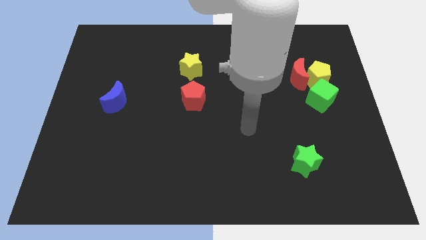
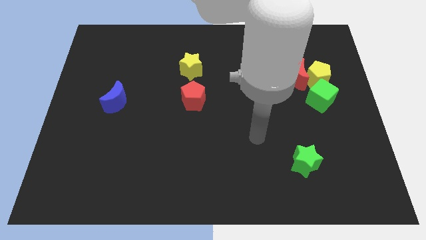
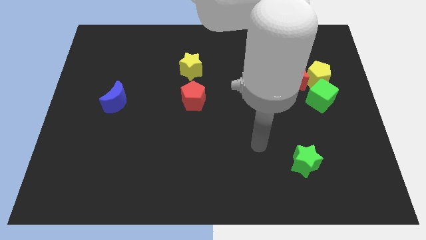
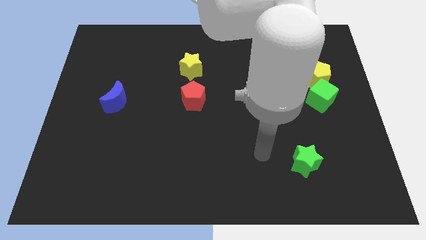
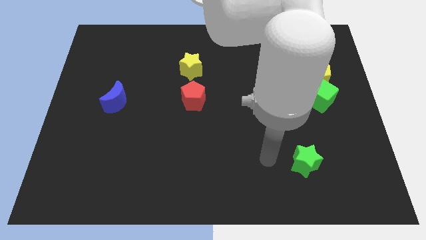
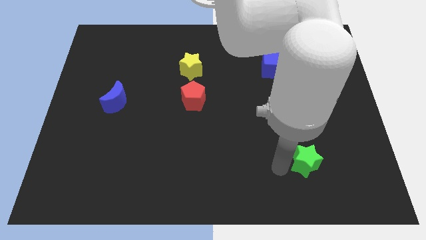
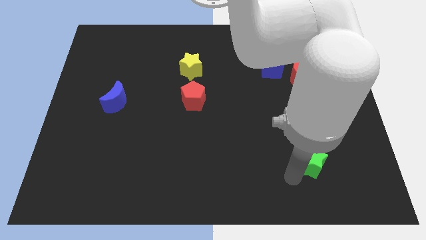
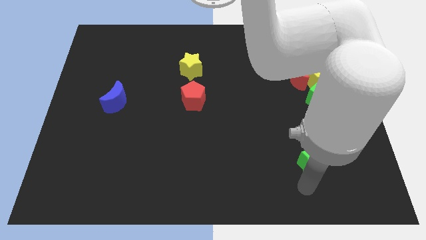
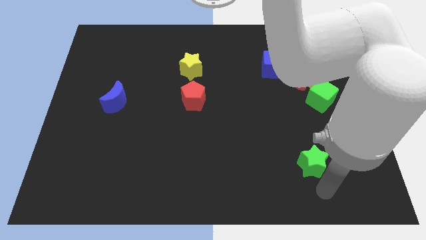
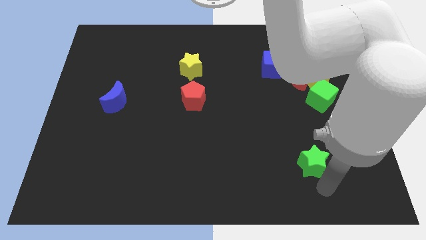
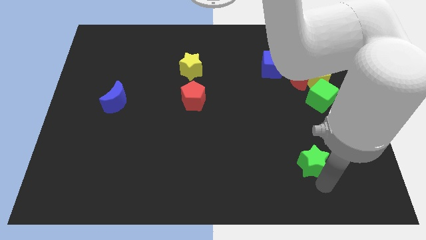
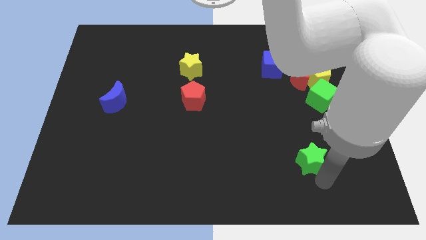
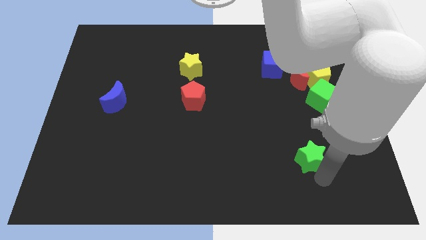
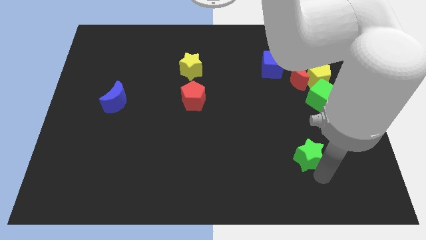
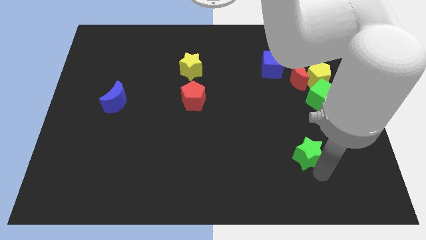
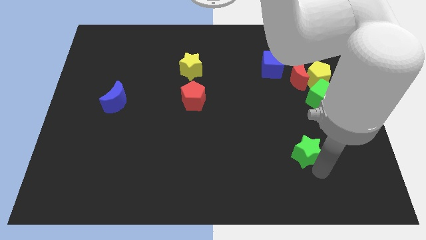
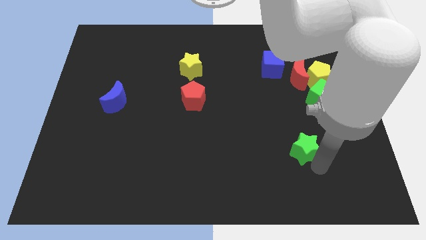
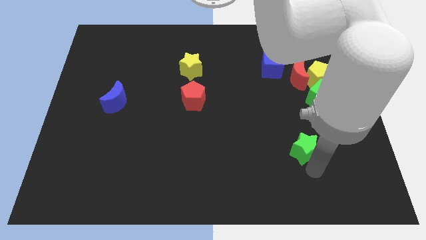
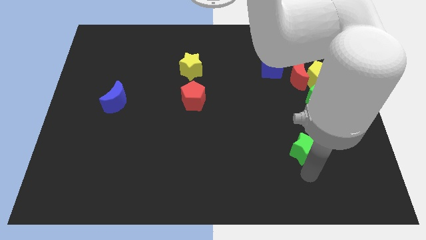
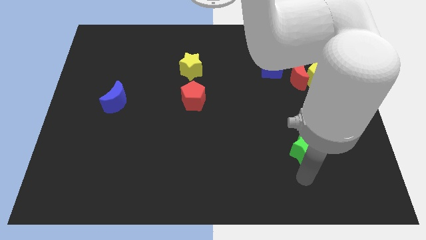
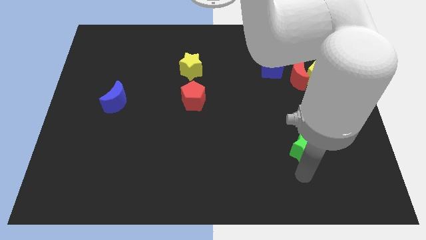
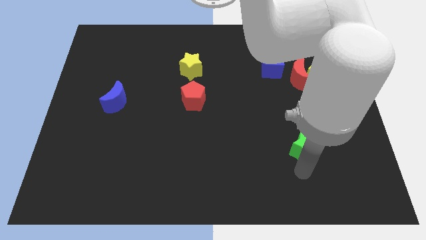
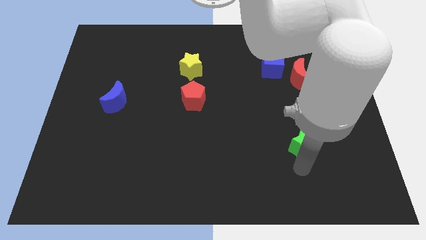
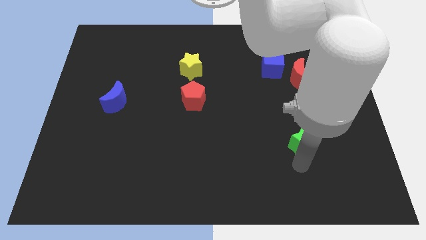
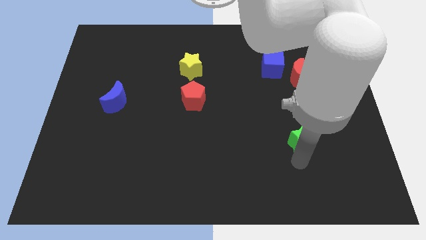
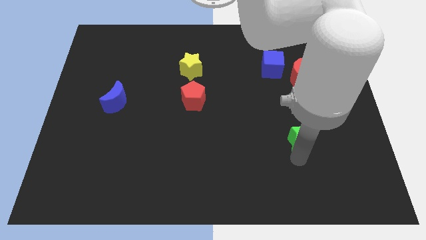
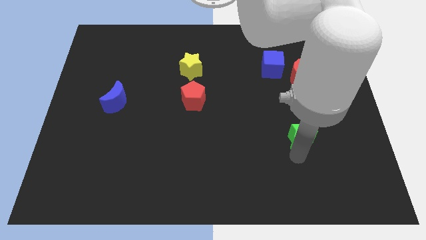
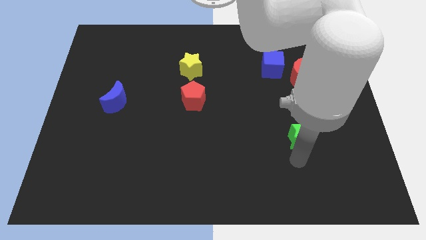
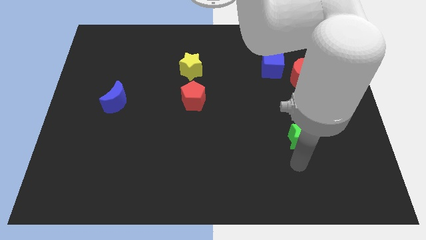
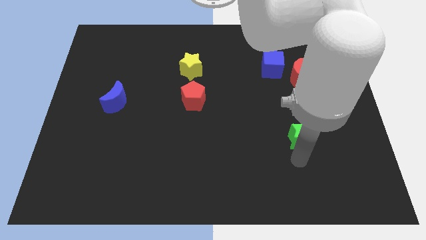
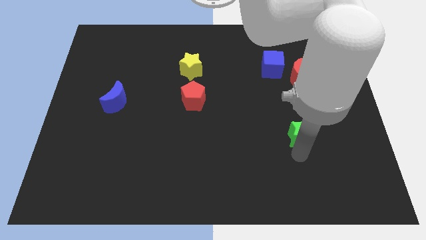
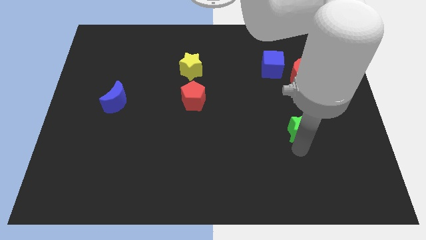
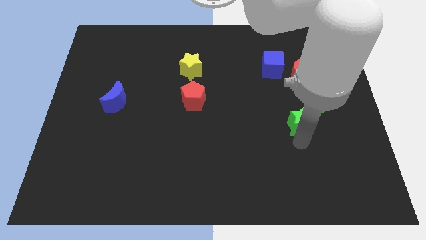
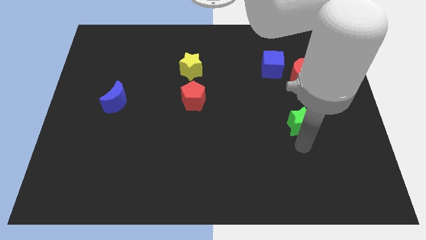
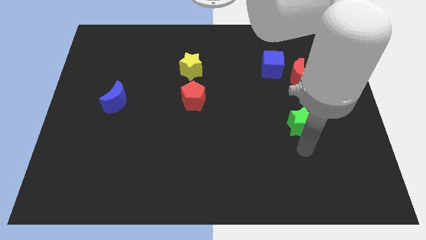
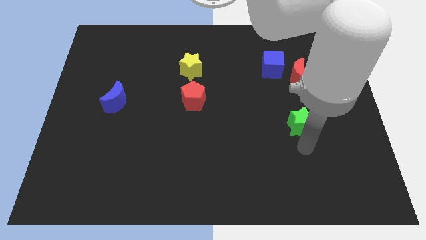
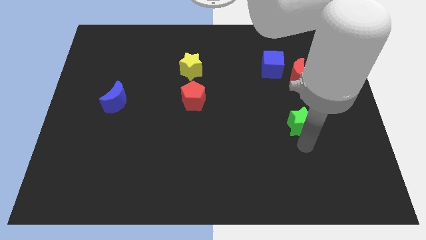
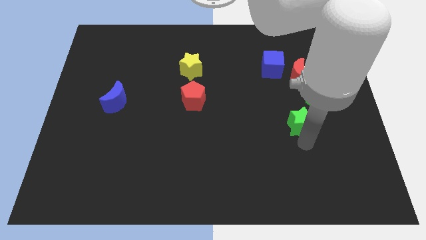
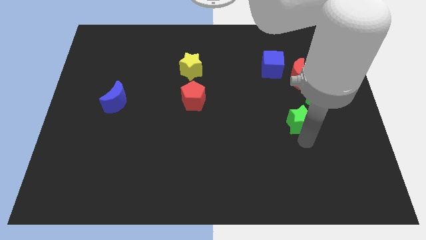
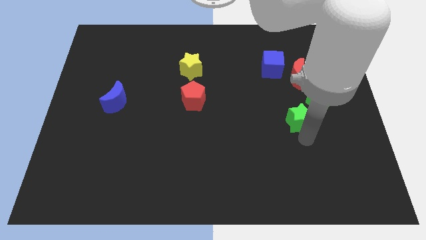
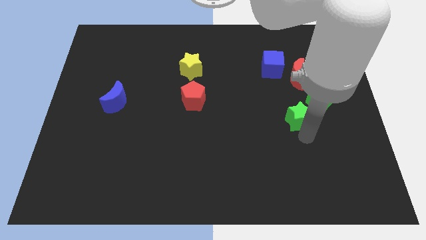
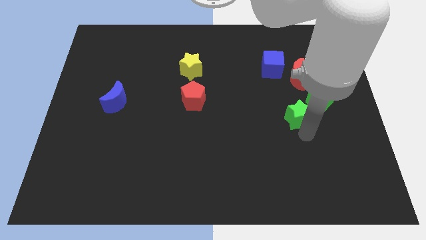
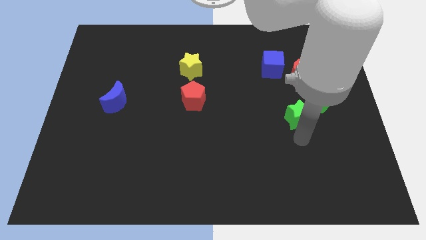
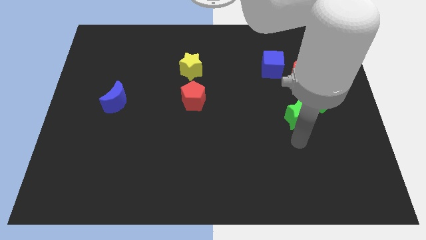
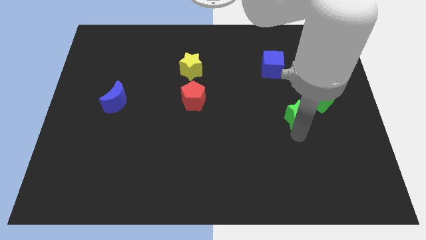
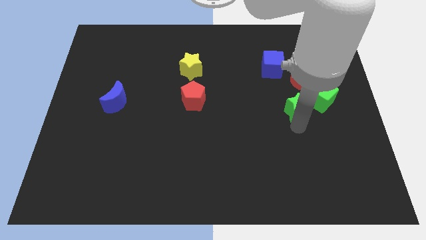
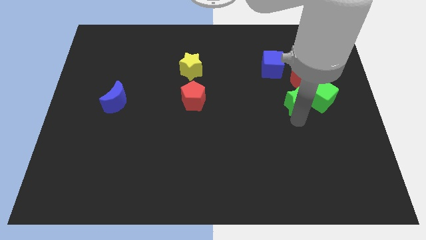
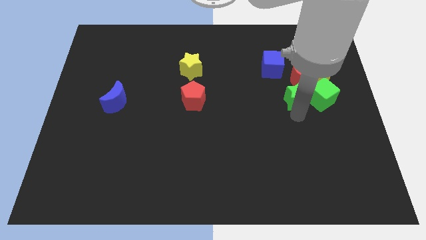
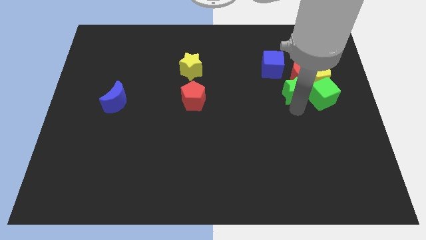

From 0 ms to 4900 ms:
move the green star close to the red moon

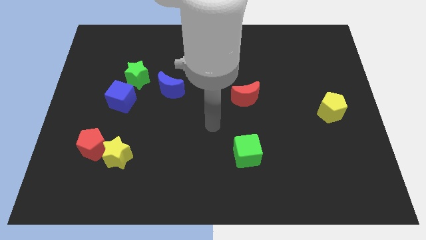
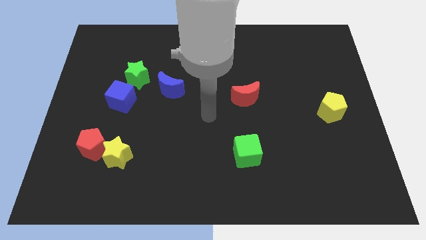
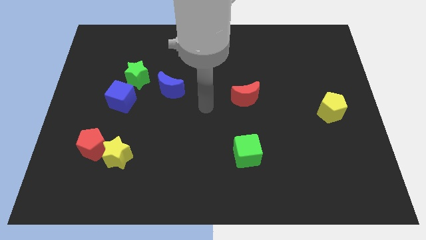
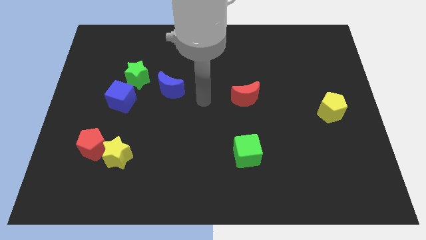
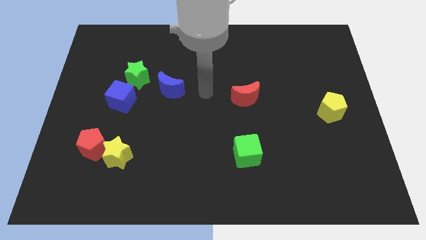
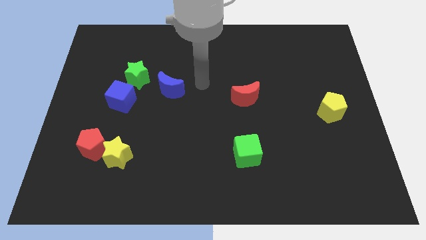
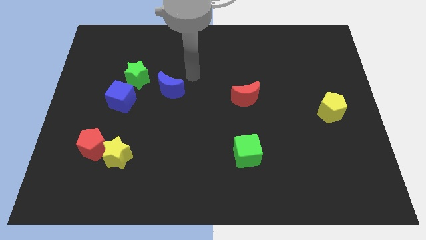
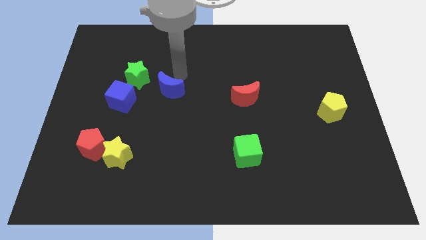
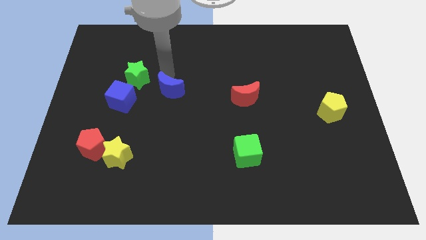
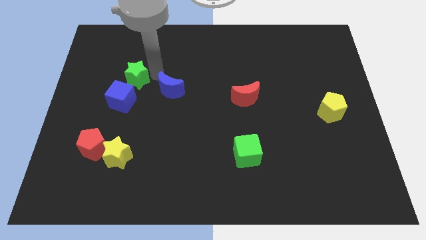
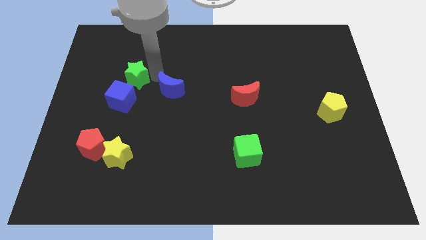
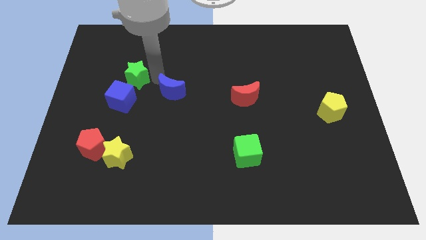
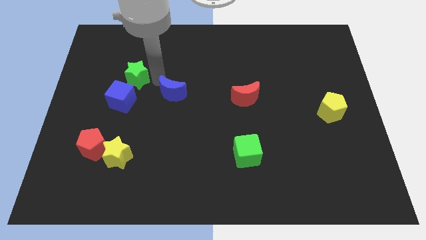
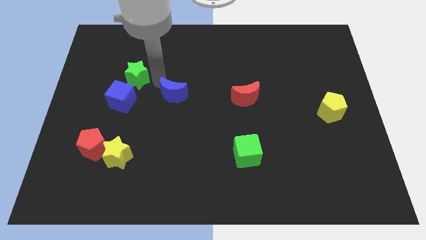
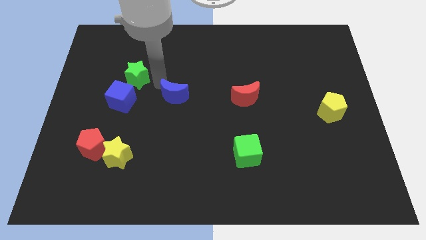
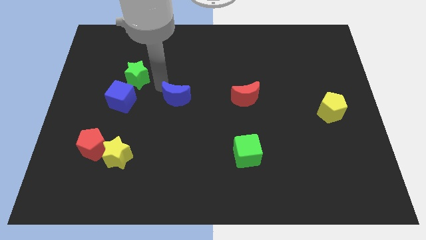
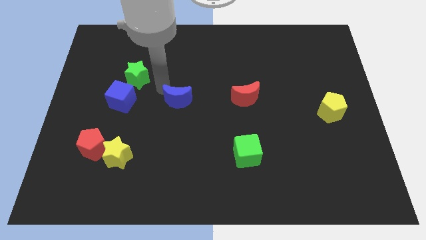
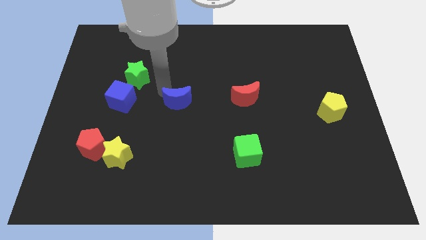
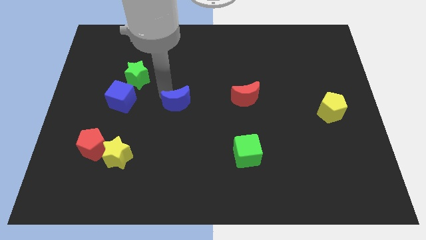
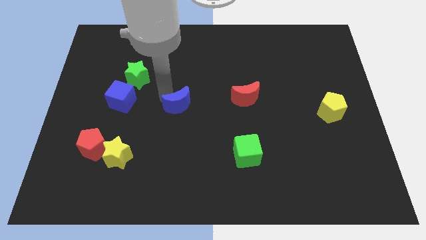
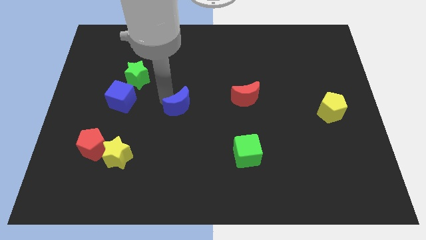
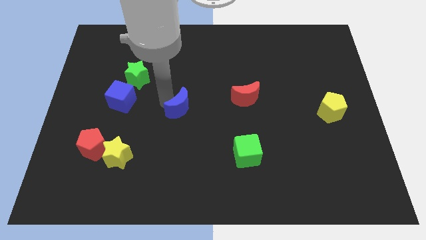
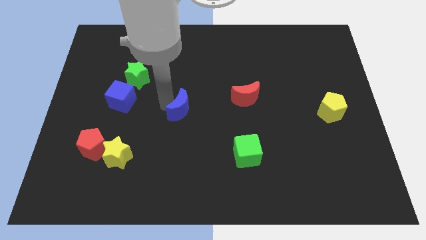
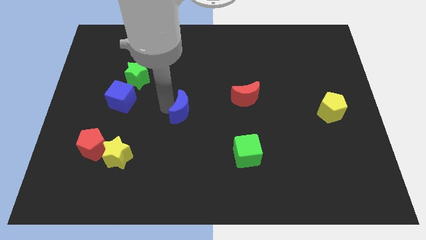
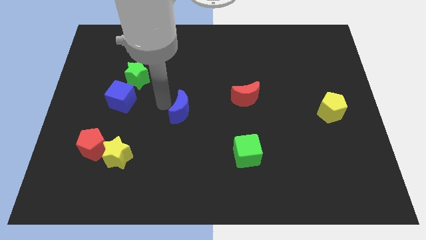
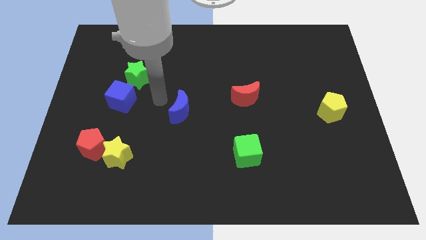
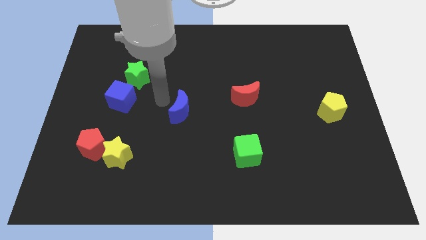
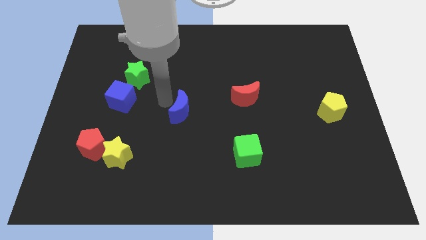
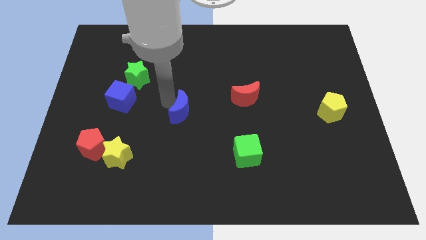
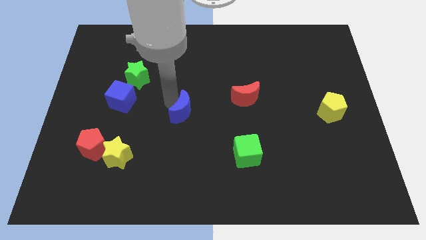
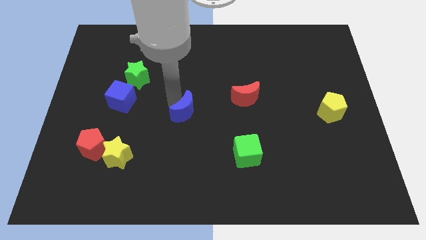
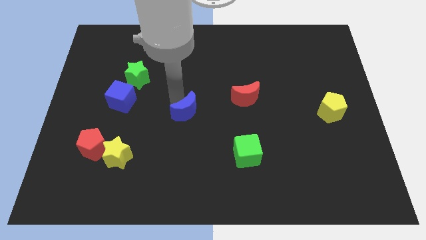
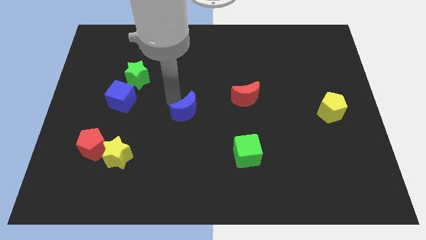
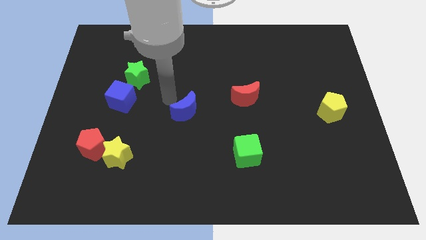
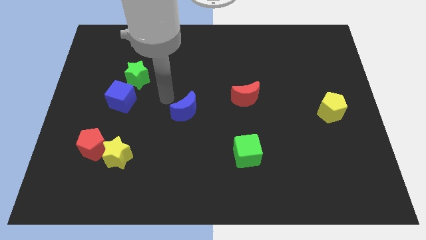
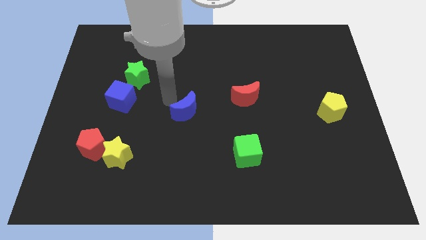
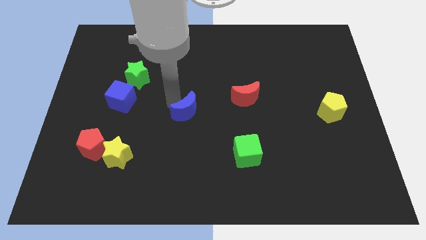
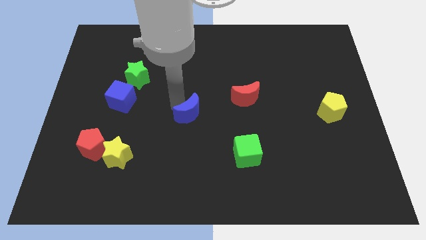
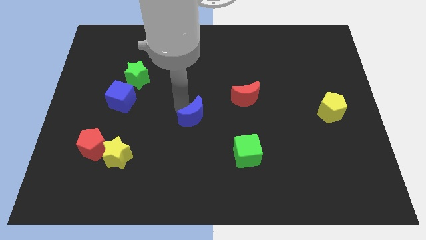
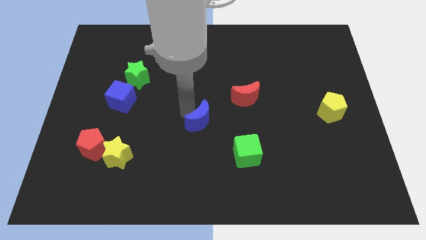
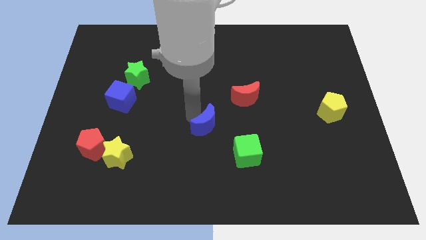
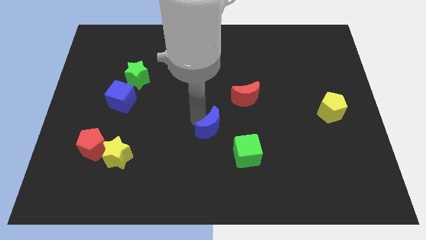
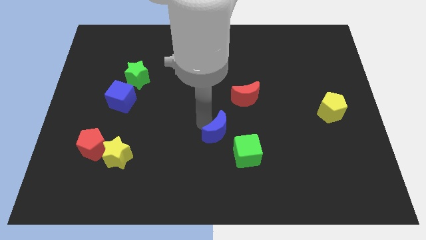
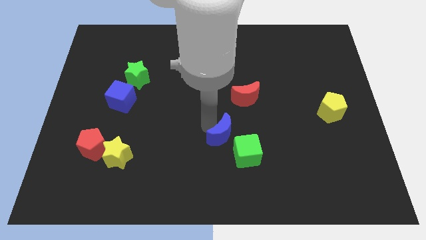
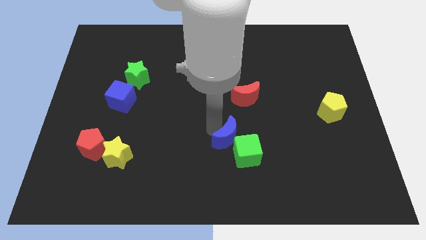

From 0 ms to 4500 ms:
move the blue moon towards the green cube
